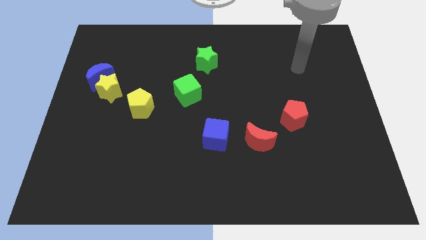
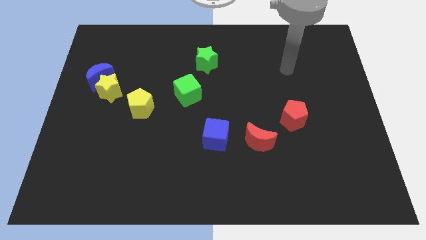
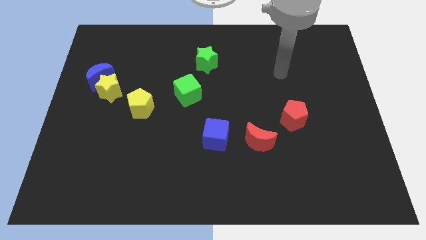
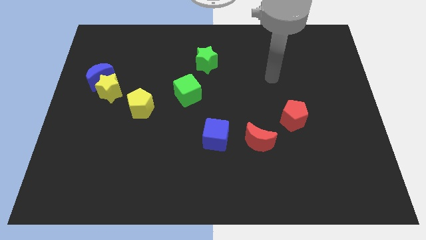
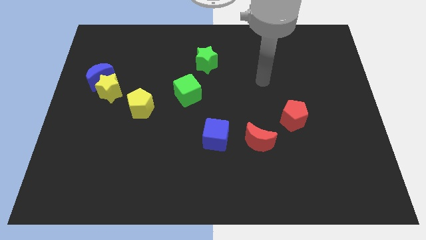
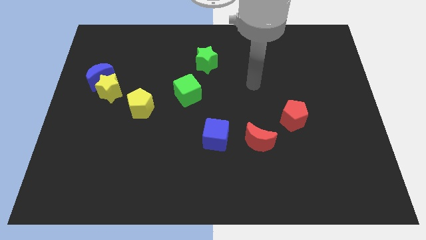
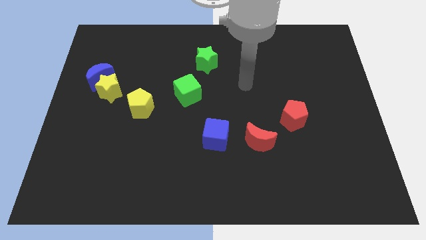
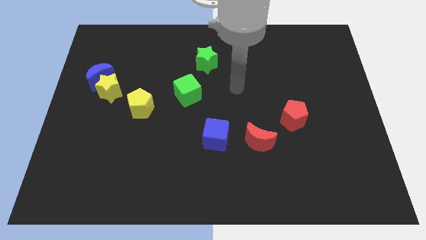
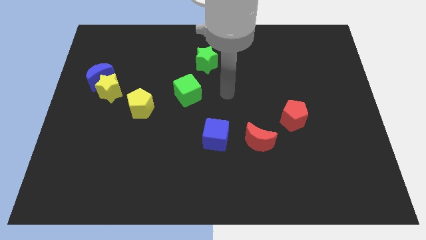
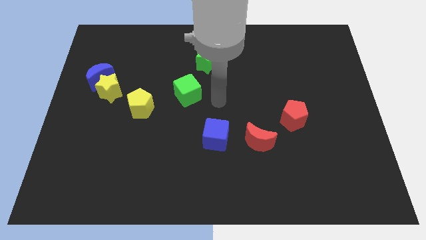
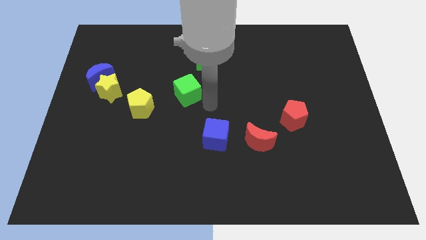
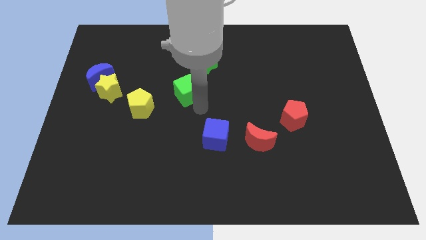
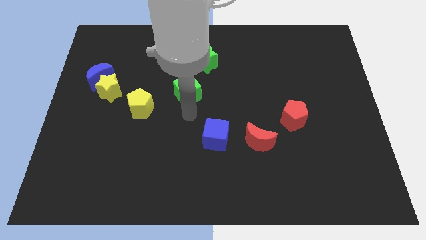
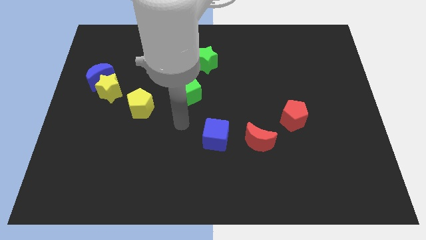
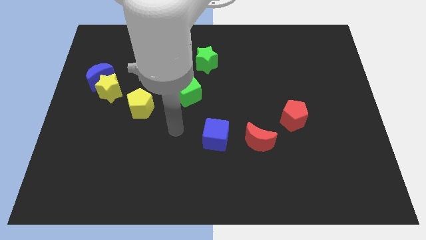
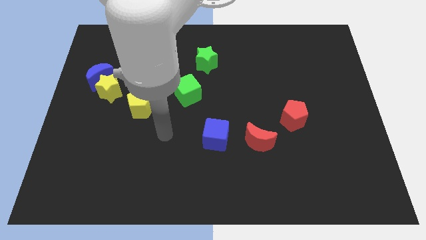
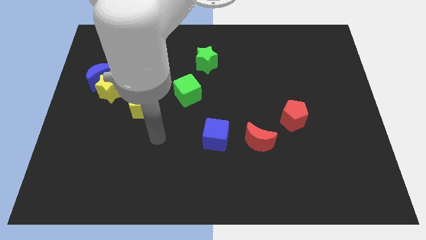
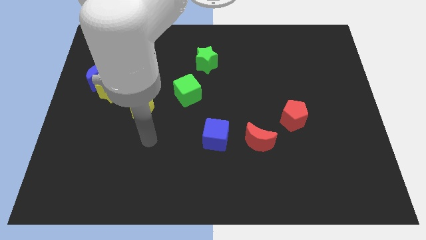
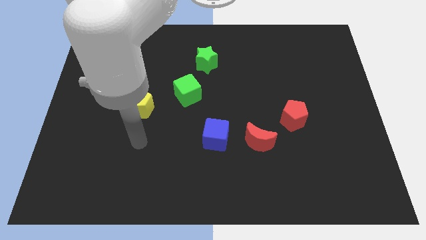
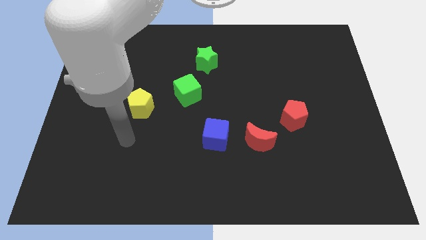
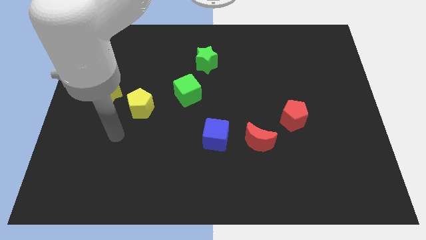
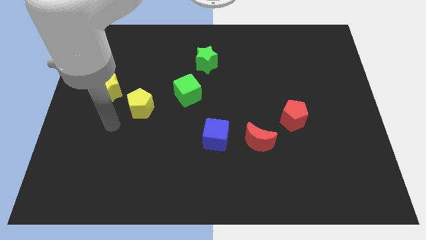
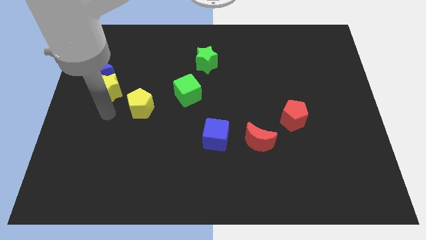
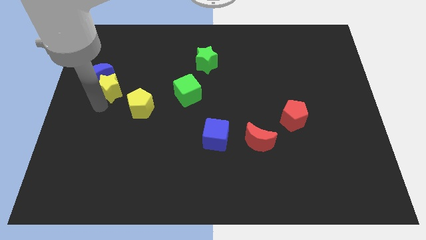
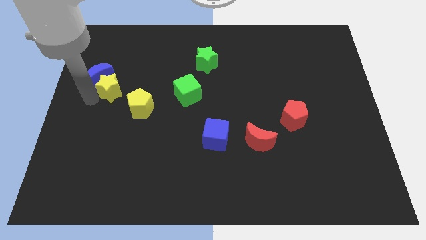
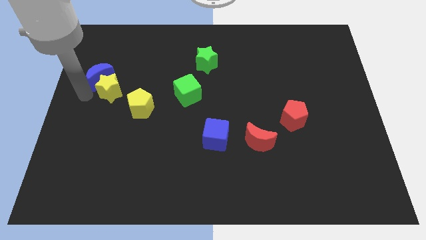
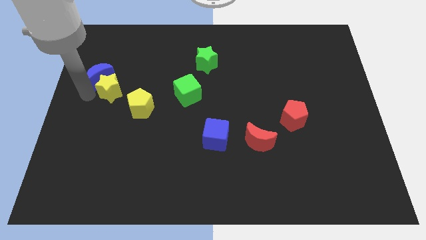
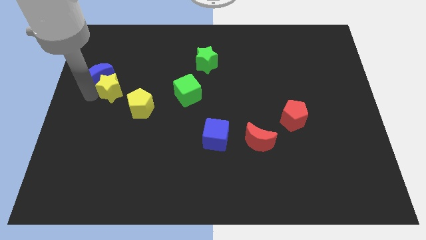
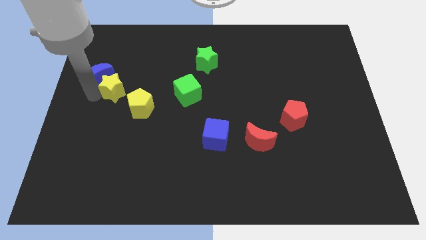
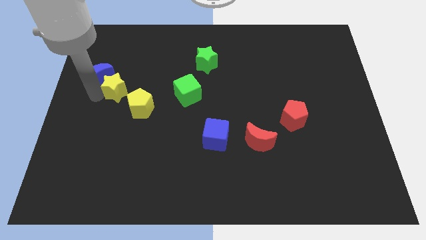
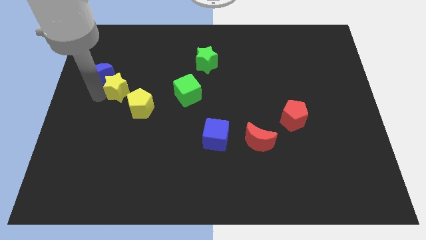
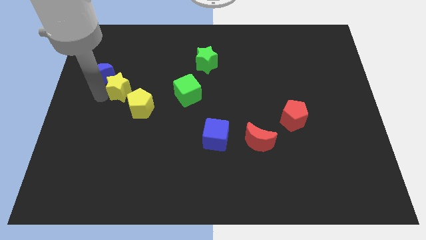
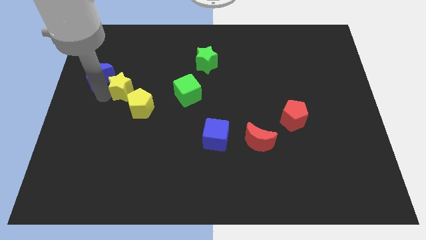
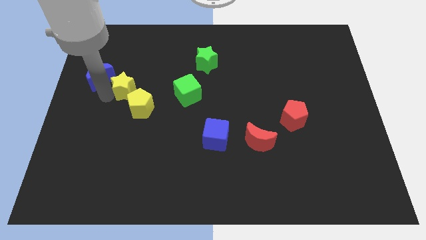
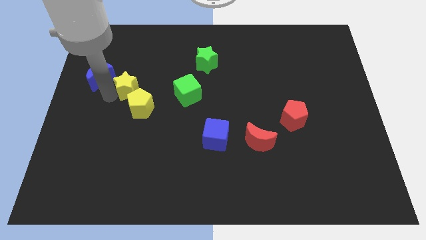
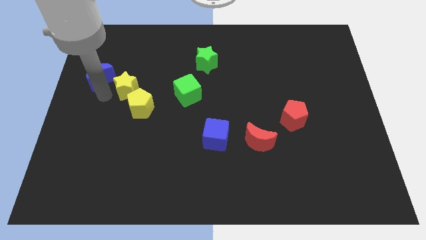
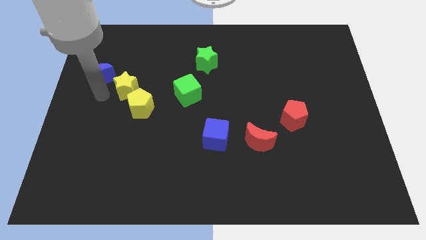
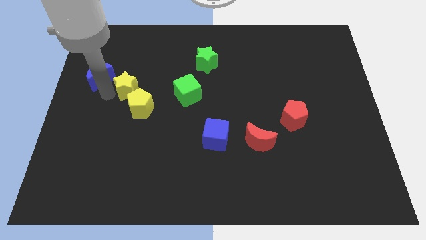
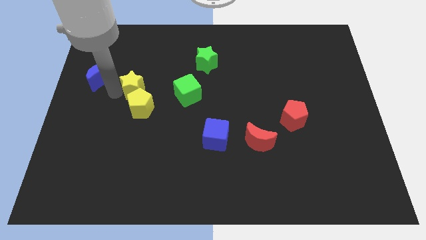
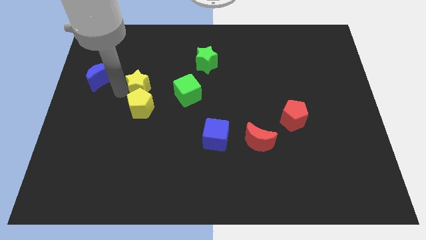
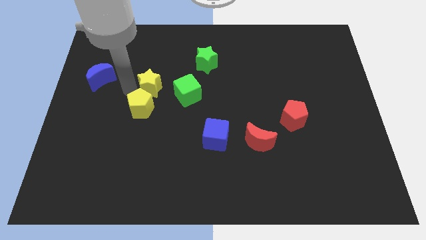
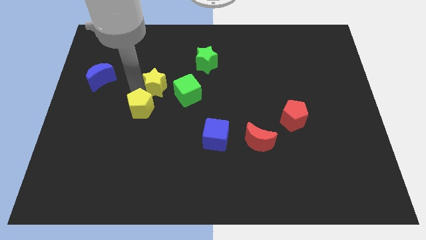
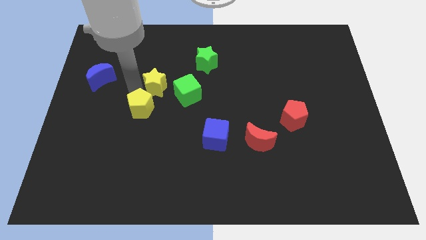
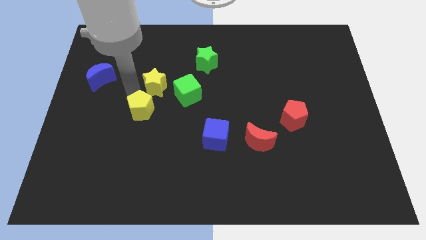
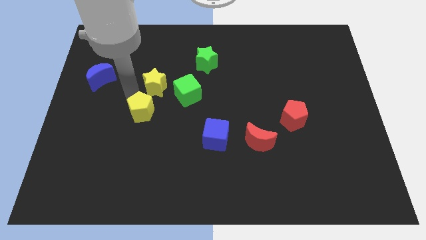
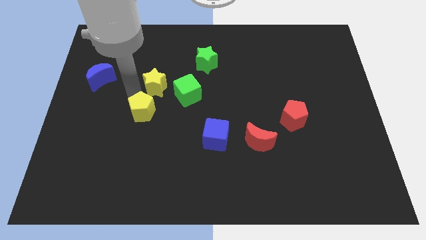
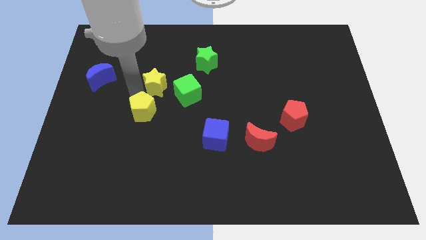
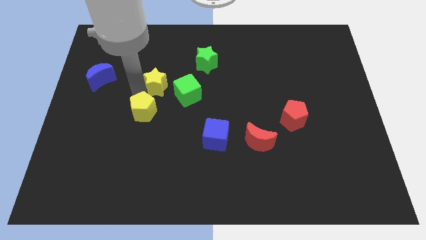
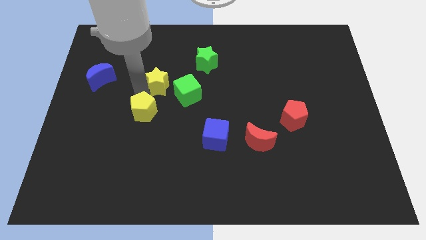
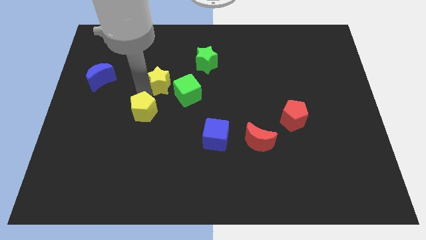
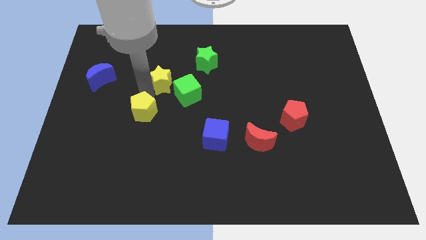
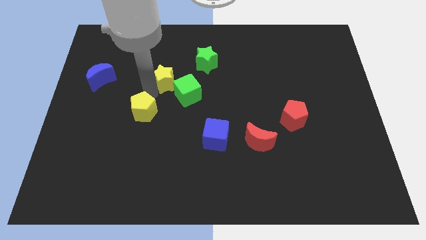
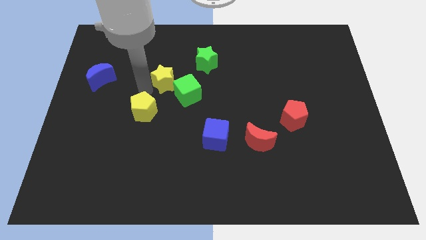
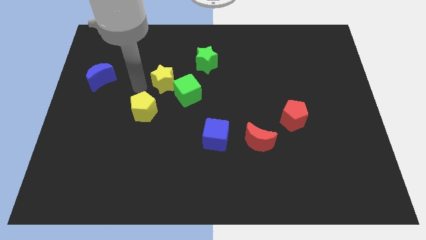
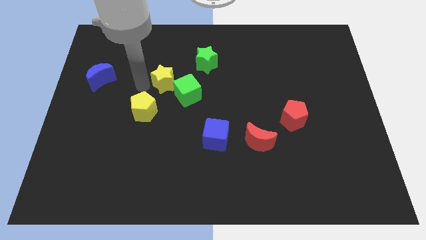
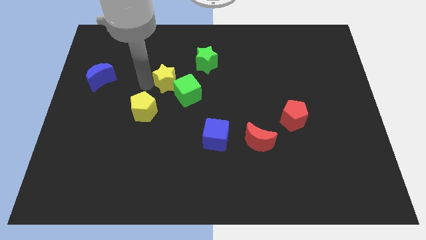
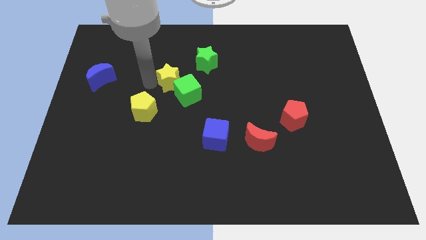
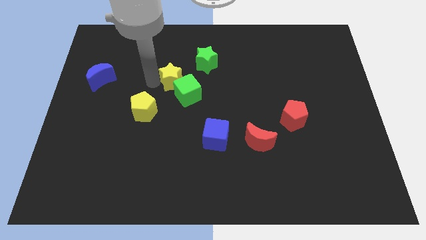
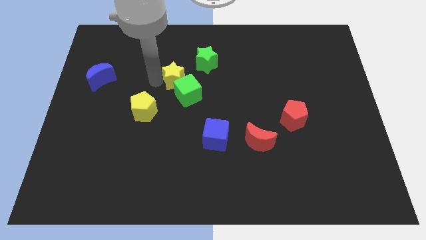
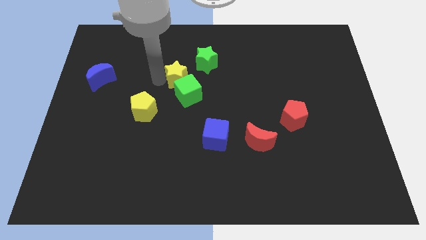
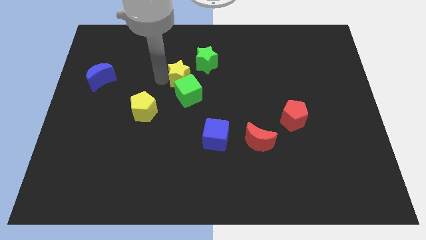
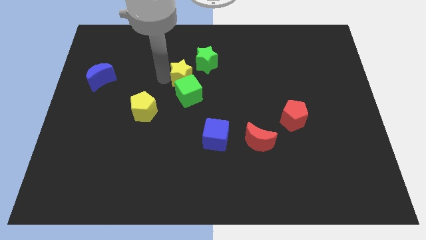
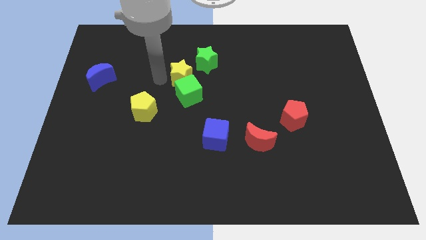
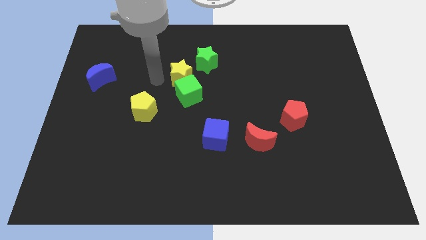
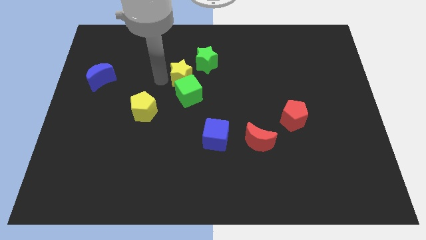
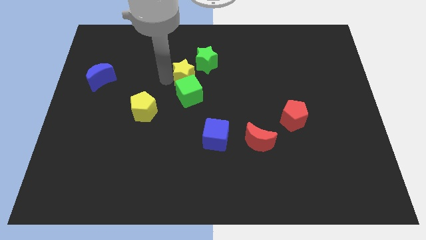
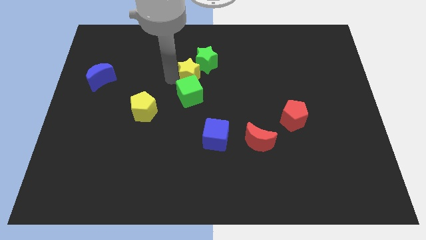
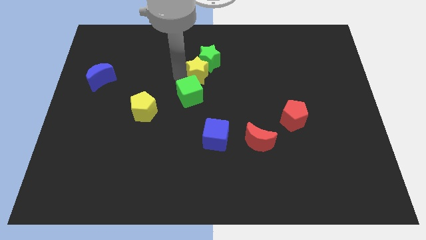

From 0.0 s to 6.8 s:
slide the yellow star to the right

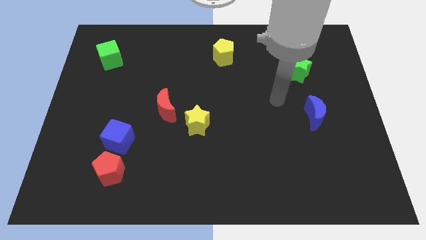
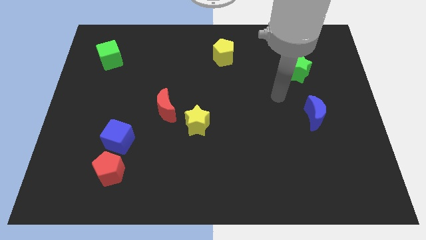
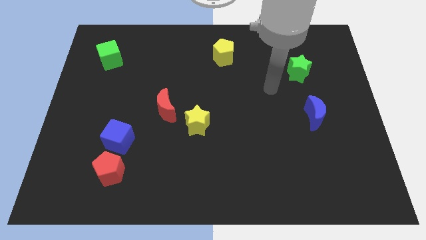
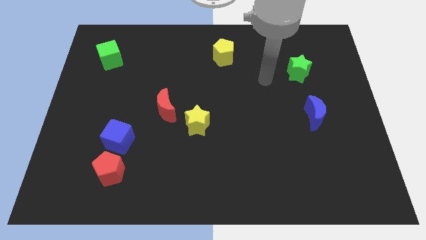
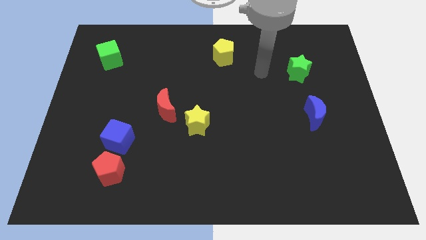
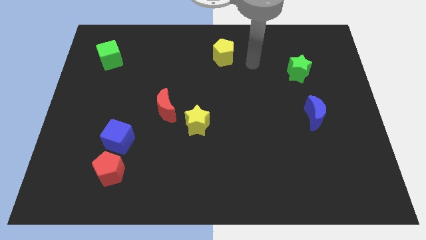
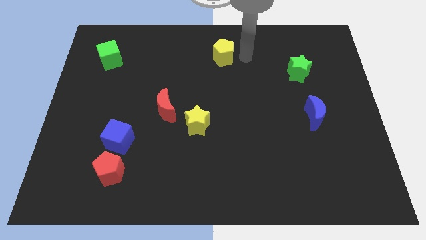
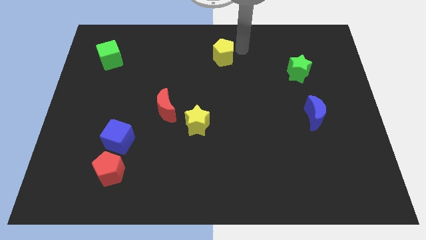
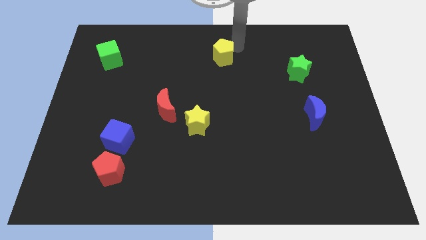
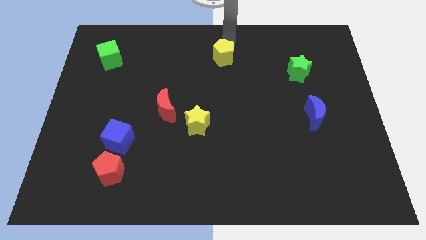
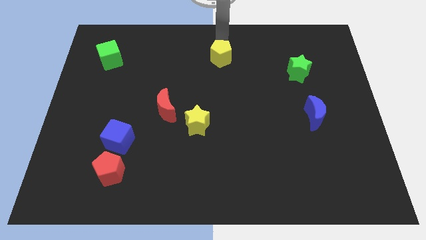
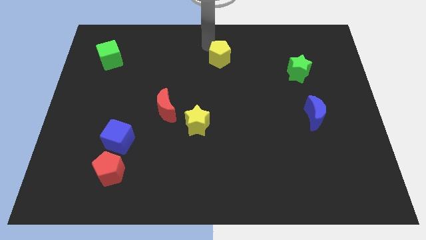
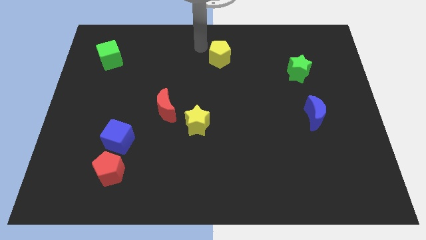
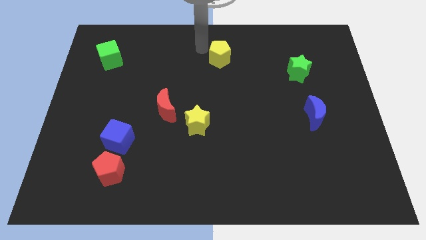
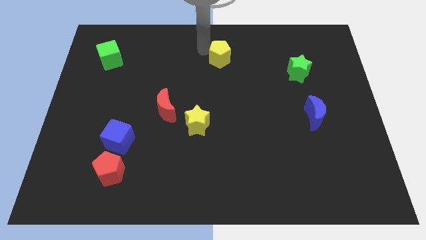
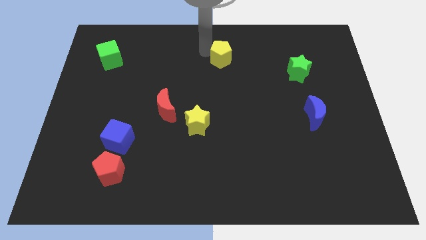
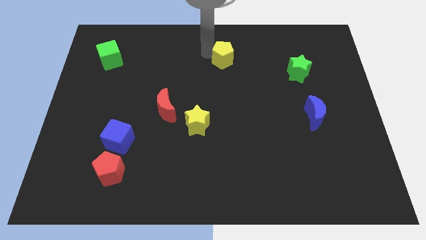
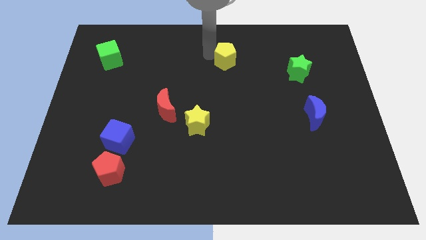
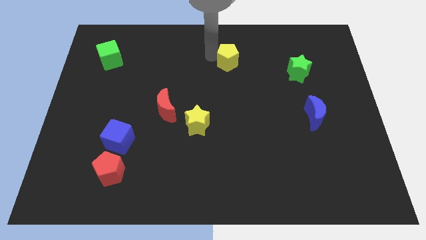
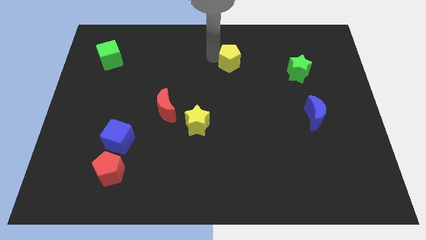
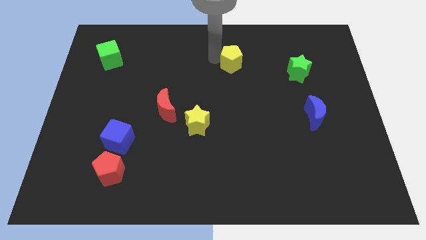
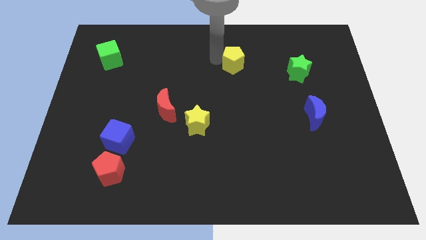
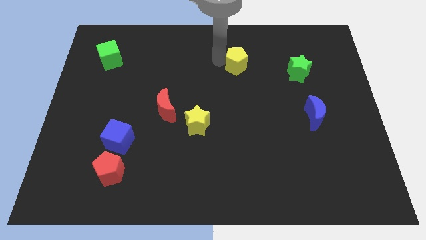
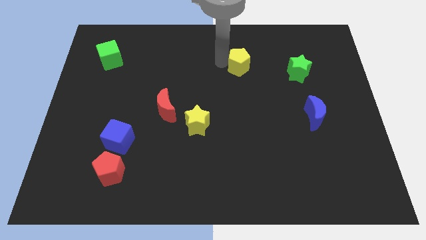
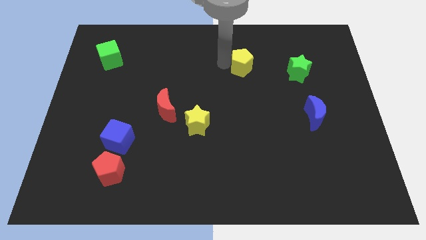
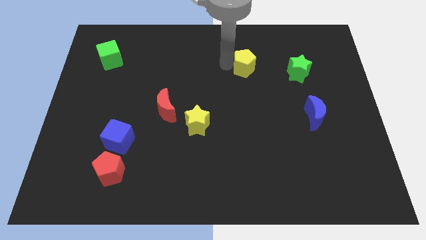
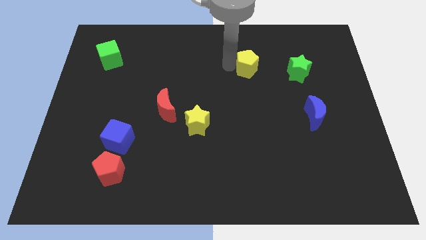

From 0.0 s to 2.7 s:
slide the yellow pentagon down and right a little bit
